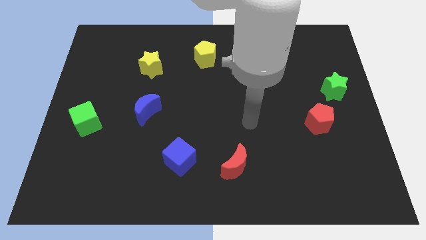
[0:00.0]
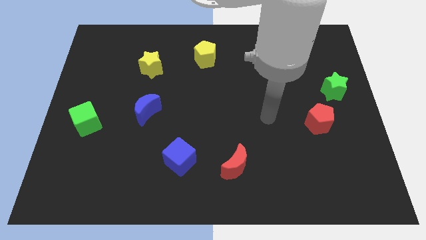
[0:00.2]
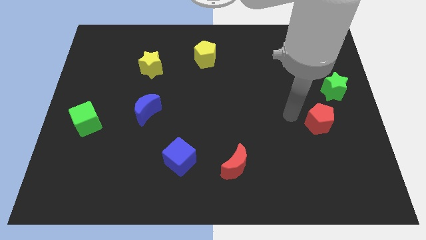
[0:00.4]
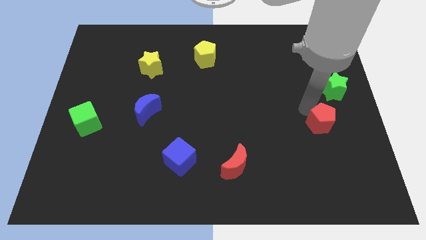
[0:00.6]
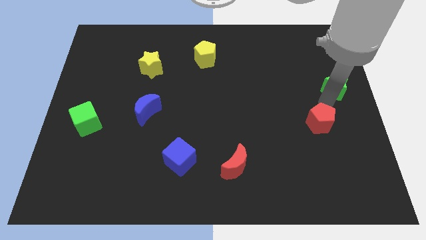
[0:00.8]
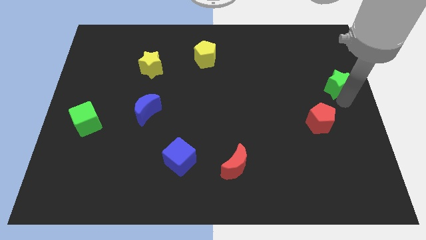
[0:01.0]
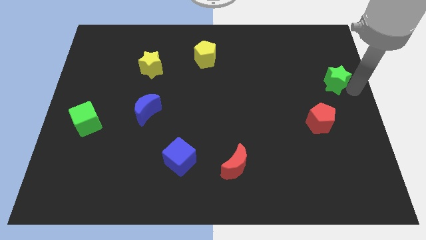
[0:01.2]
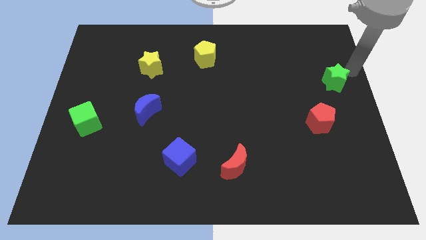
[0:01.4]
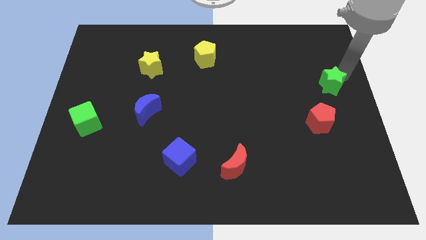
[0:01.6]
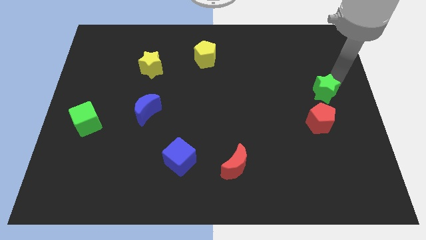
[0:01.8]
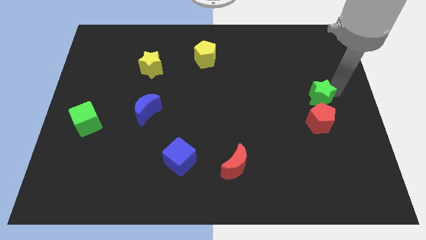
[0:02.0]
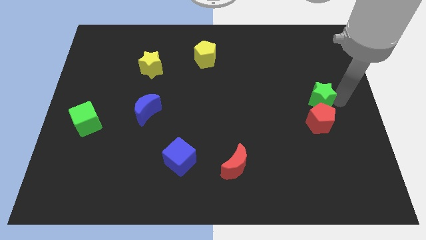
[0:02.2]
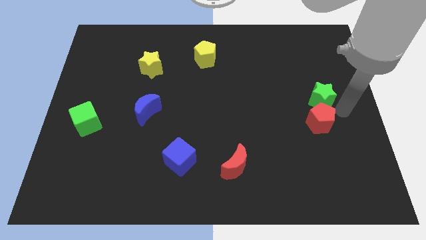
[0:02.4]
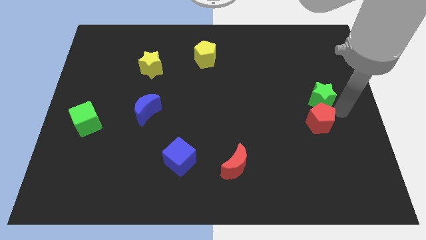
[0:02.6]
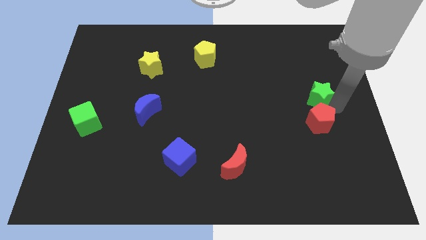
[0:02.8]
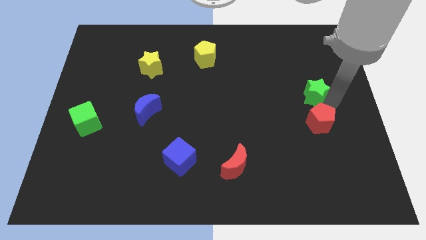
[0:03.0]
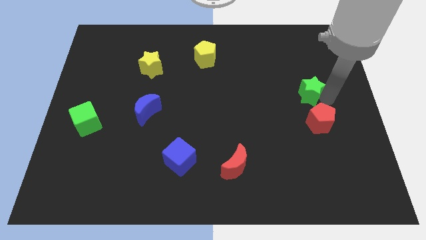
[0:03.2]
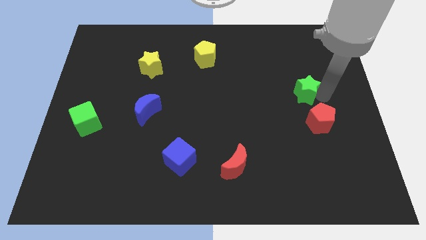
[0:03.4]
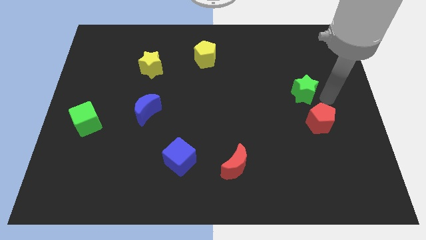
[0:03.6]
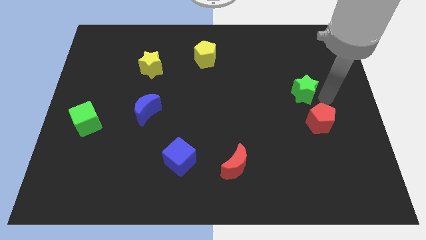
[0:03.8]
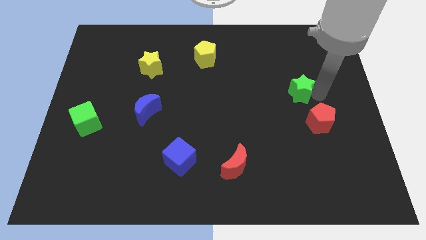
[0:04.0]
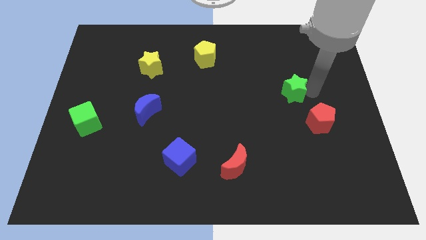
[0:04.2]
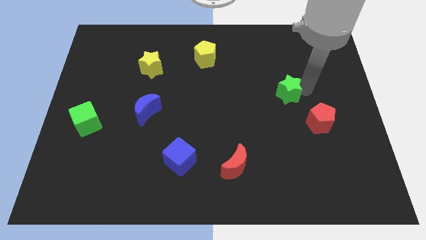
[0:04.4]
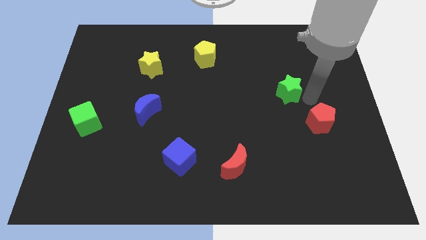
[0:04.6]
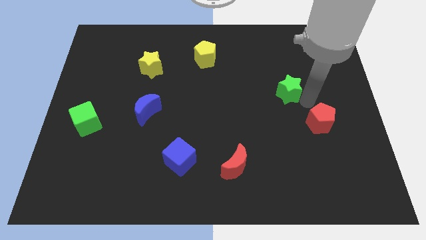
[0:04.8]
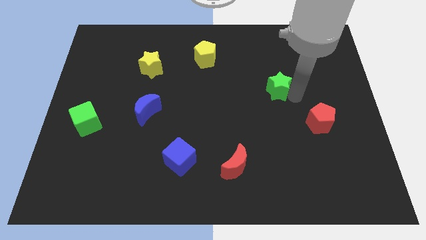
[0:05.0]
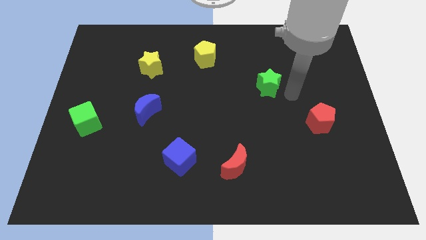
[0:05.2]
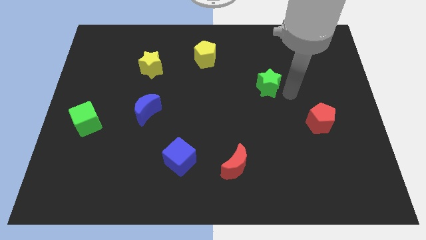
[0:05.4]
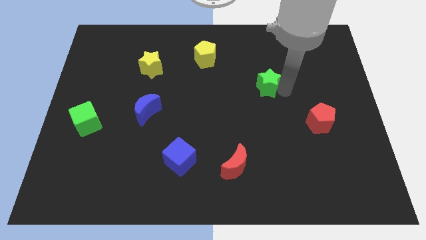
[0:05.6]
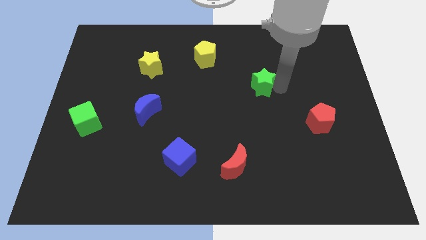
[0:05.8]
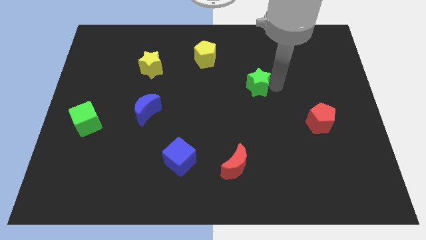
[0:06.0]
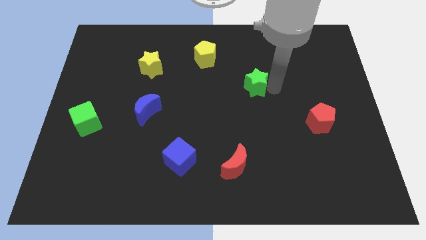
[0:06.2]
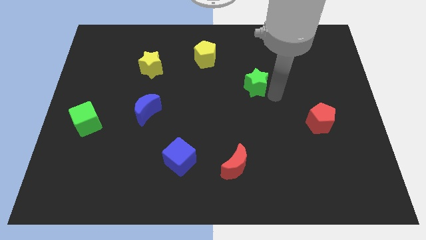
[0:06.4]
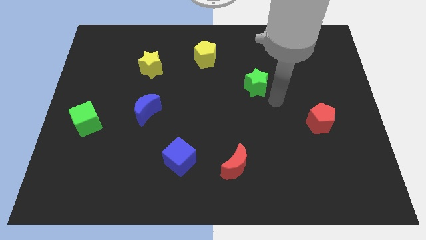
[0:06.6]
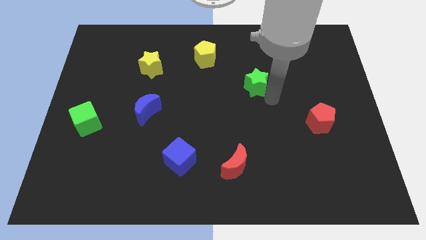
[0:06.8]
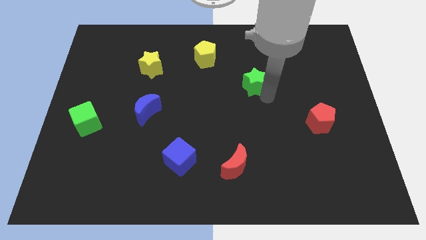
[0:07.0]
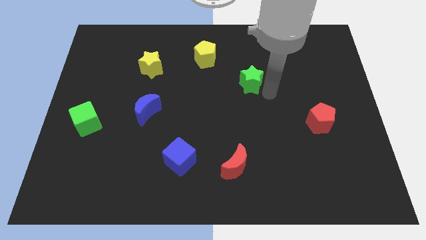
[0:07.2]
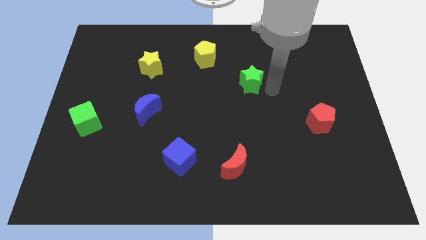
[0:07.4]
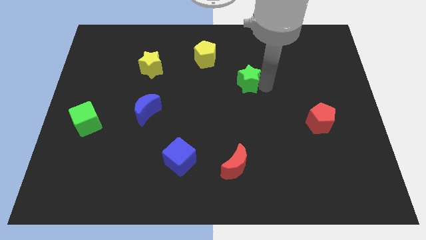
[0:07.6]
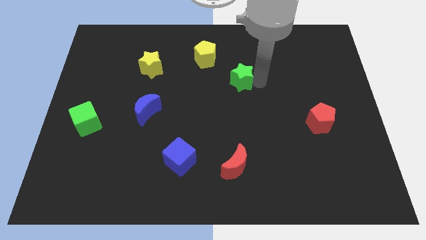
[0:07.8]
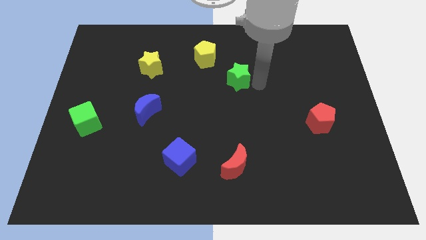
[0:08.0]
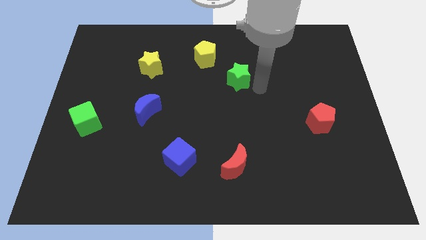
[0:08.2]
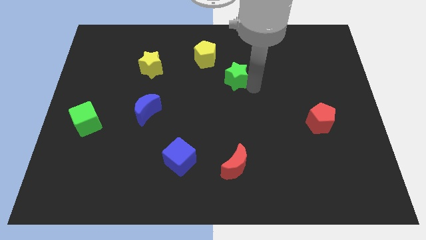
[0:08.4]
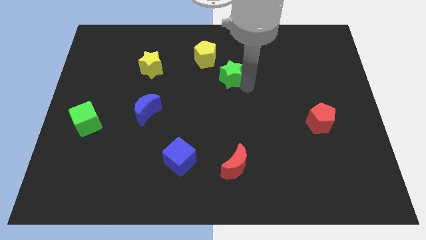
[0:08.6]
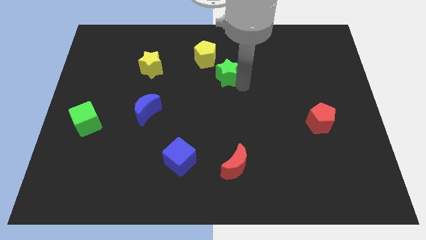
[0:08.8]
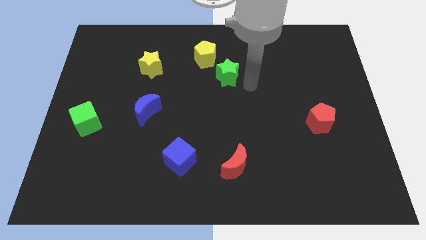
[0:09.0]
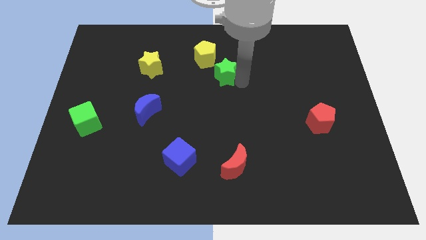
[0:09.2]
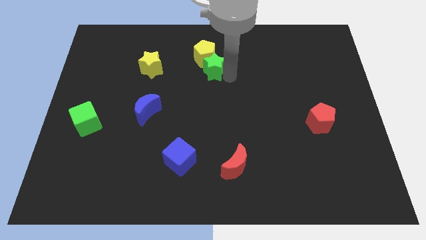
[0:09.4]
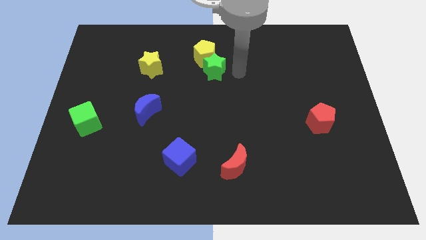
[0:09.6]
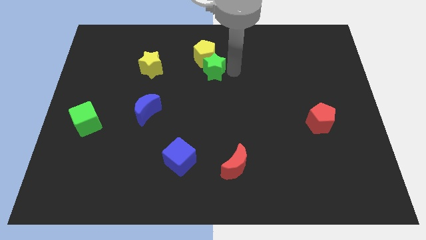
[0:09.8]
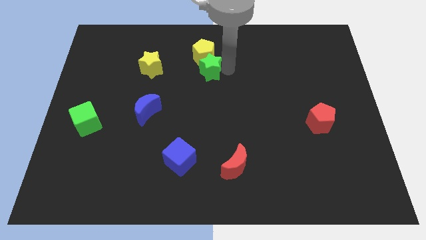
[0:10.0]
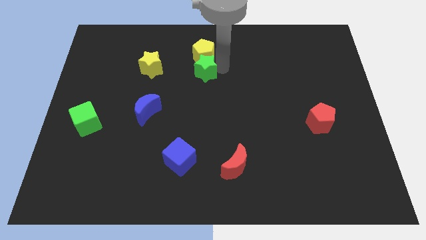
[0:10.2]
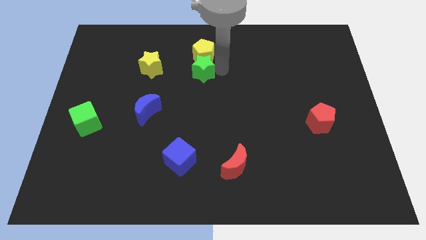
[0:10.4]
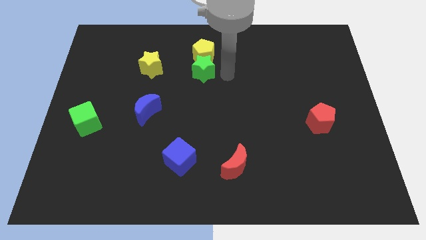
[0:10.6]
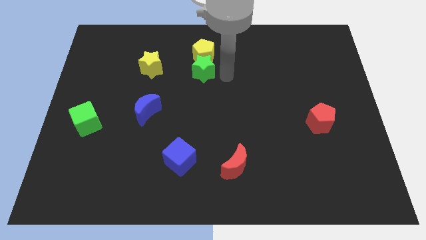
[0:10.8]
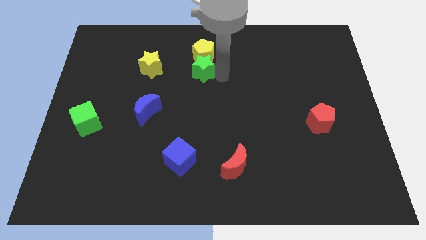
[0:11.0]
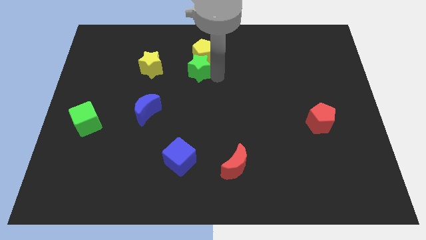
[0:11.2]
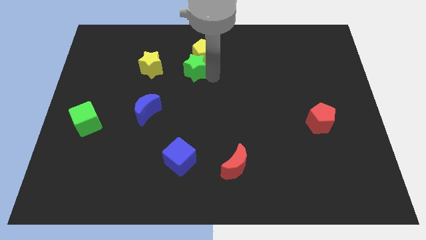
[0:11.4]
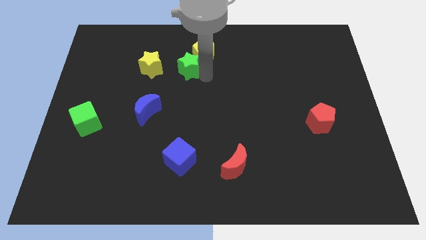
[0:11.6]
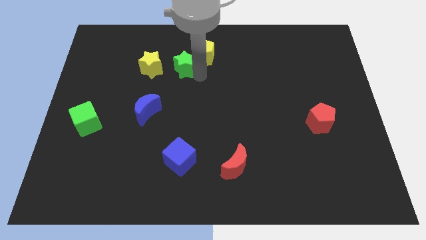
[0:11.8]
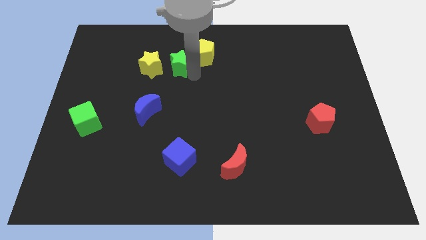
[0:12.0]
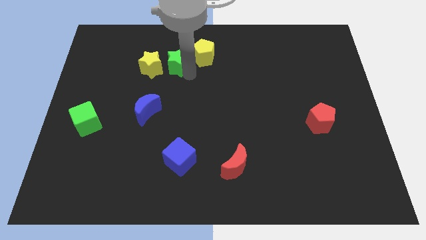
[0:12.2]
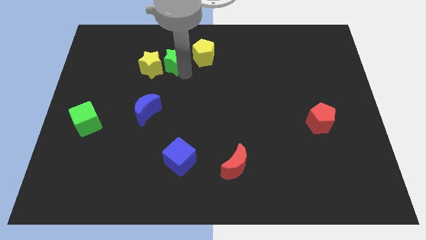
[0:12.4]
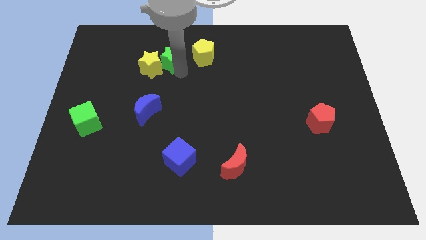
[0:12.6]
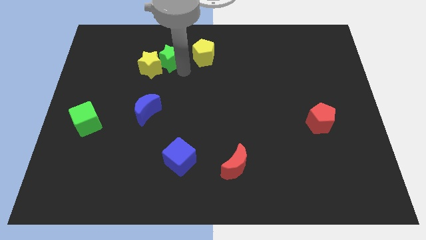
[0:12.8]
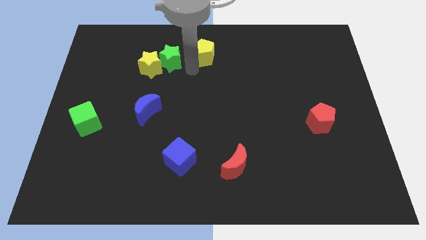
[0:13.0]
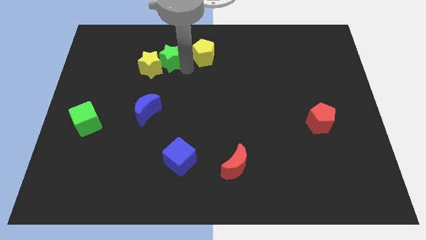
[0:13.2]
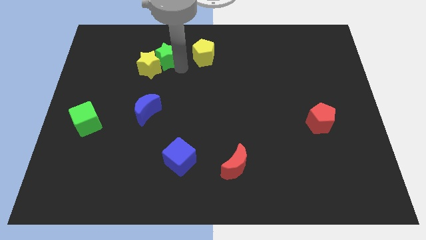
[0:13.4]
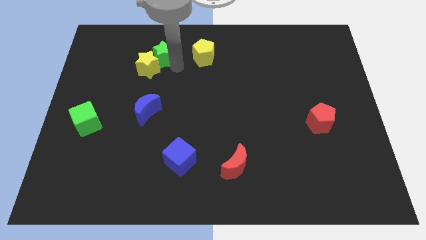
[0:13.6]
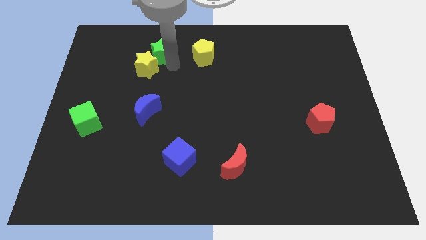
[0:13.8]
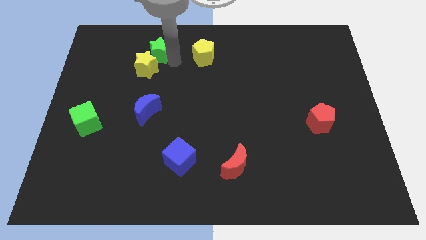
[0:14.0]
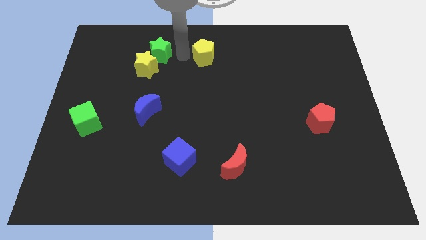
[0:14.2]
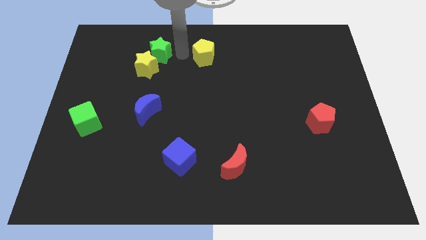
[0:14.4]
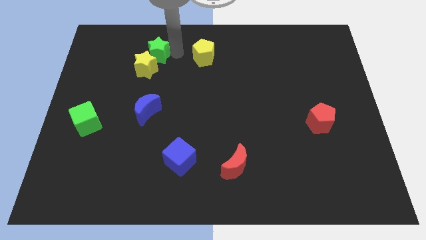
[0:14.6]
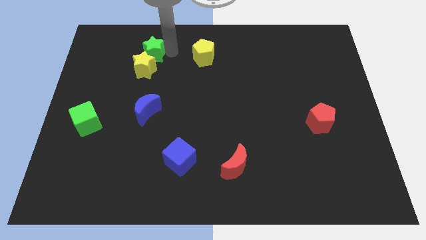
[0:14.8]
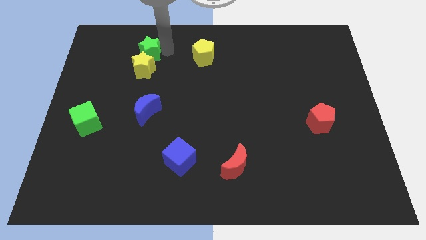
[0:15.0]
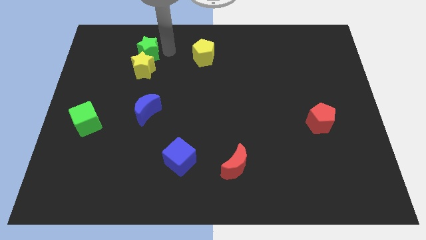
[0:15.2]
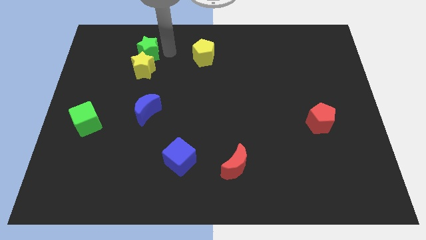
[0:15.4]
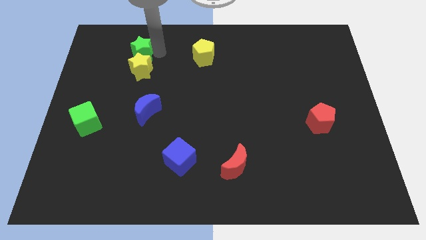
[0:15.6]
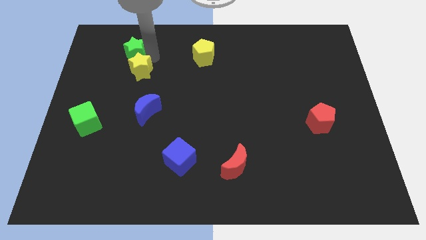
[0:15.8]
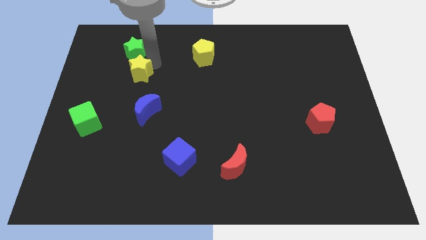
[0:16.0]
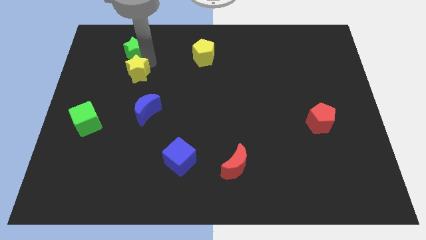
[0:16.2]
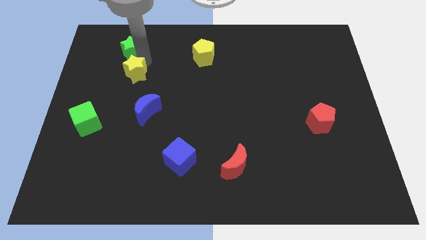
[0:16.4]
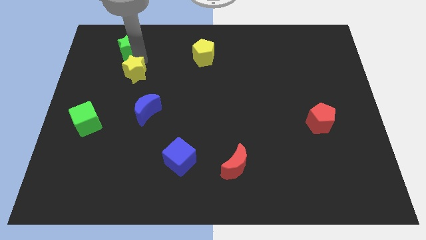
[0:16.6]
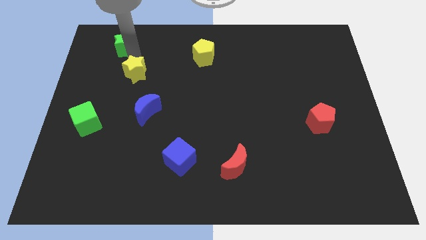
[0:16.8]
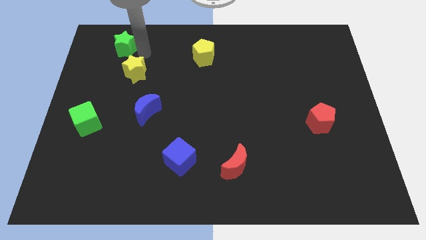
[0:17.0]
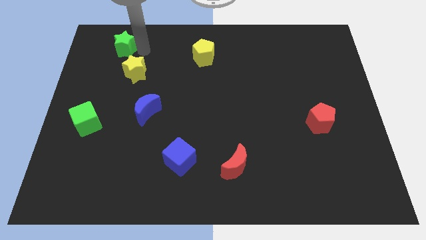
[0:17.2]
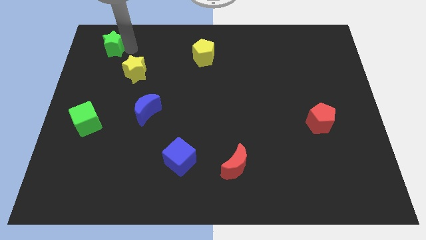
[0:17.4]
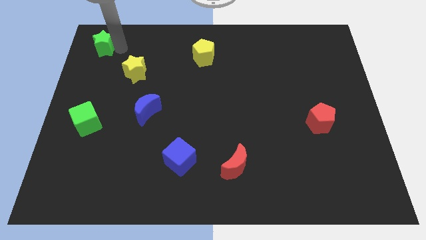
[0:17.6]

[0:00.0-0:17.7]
slide the green star to the top left of the board
